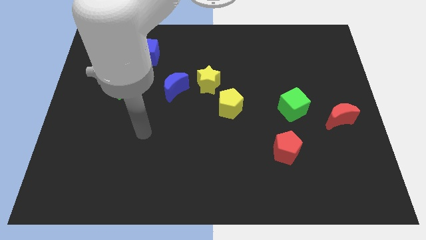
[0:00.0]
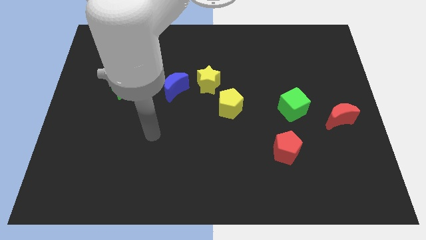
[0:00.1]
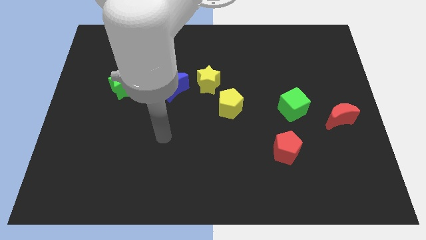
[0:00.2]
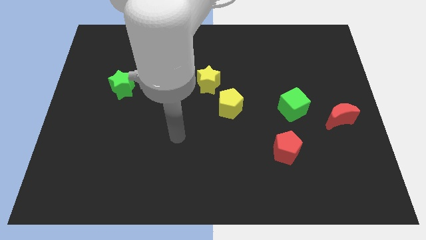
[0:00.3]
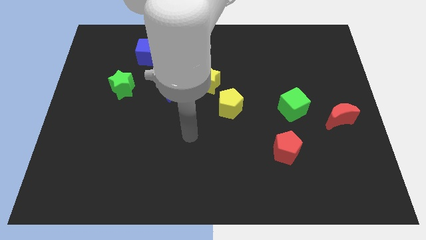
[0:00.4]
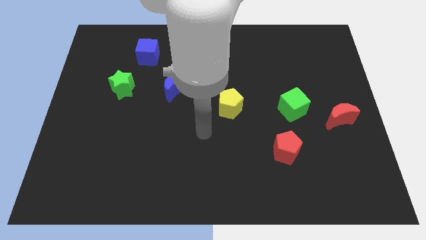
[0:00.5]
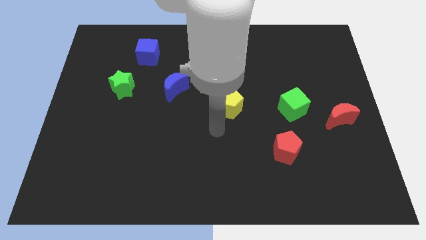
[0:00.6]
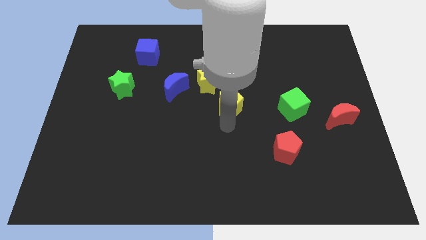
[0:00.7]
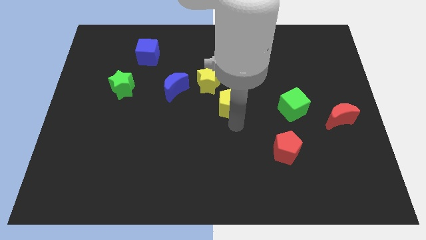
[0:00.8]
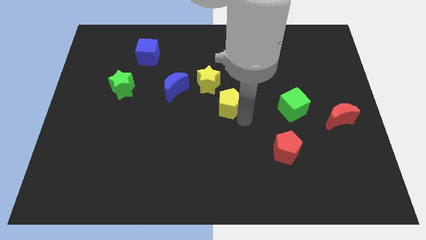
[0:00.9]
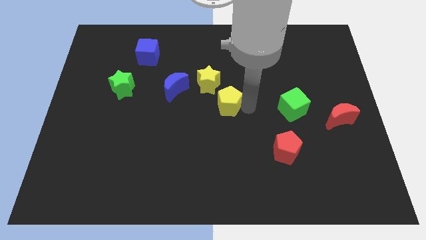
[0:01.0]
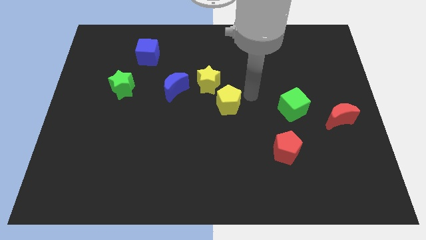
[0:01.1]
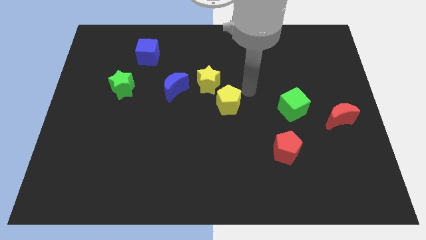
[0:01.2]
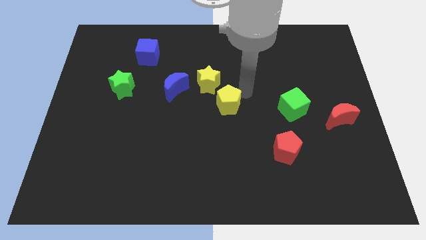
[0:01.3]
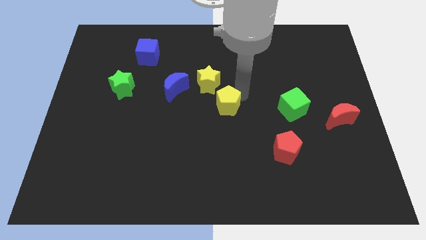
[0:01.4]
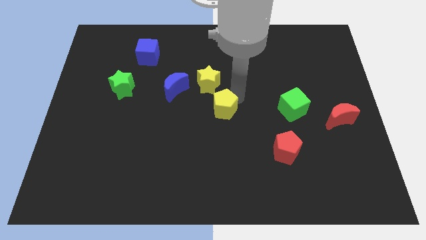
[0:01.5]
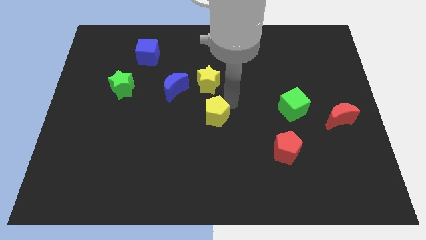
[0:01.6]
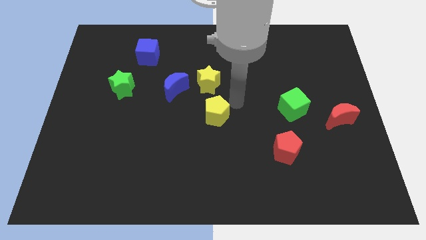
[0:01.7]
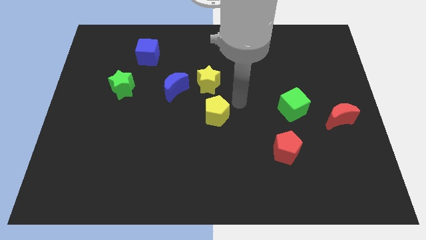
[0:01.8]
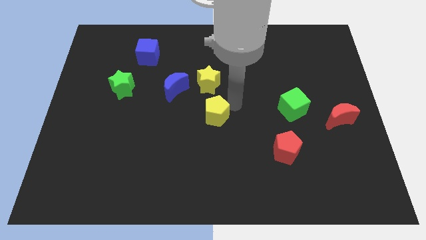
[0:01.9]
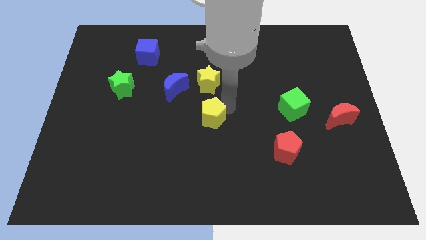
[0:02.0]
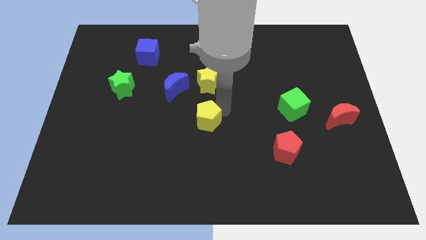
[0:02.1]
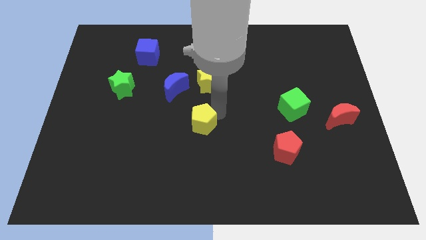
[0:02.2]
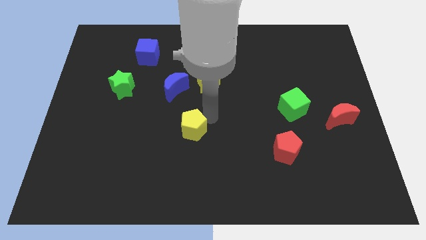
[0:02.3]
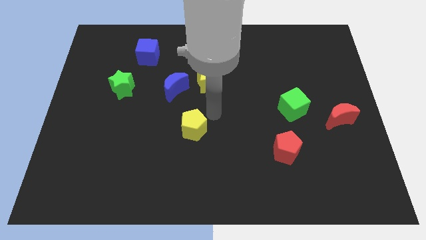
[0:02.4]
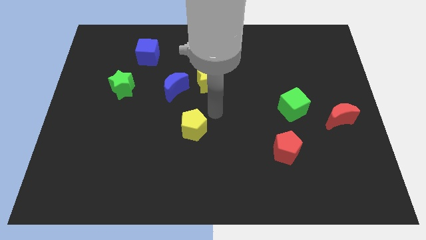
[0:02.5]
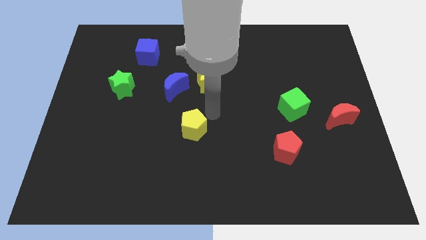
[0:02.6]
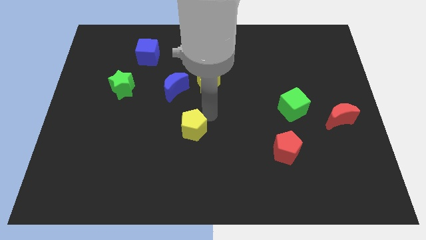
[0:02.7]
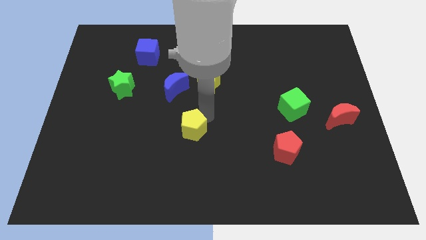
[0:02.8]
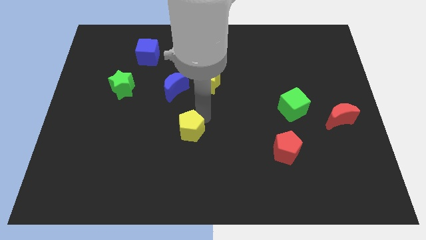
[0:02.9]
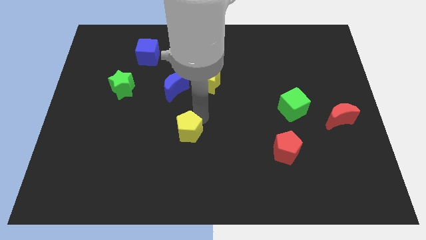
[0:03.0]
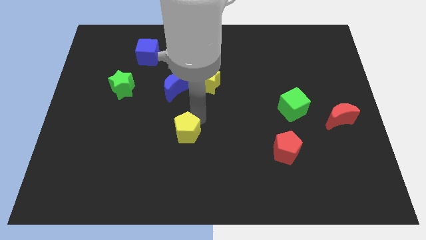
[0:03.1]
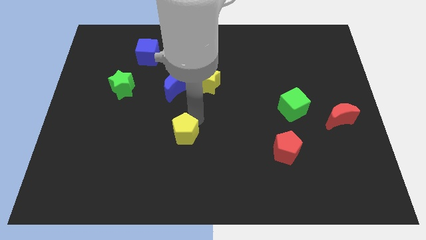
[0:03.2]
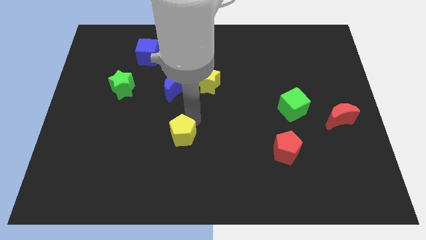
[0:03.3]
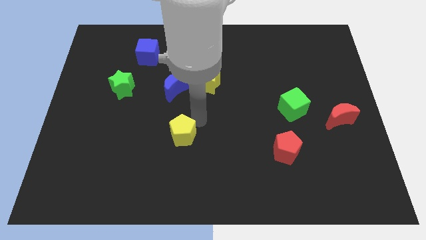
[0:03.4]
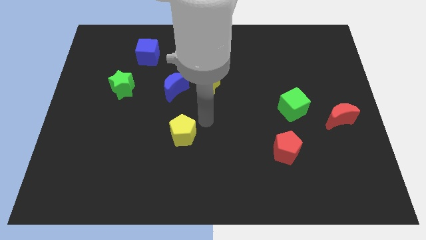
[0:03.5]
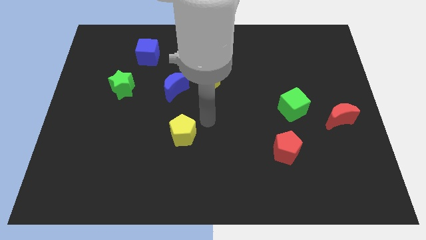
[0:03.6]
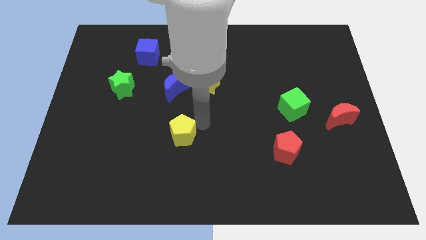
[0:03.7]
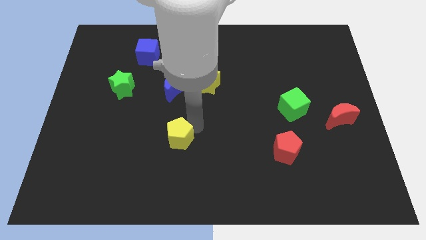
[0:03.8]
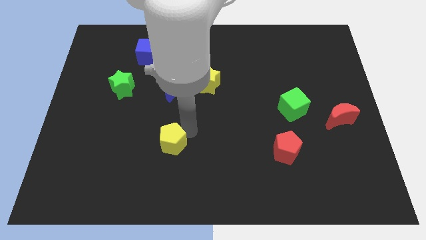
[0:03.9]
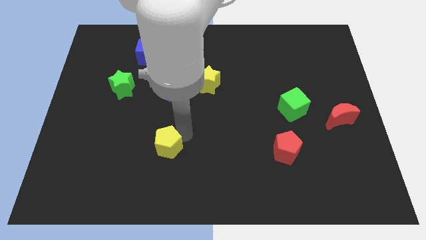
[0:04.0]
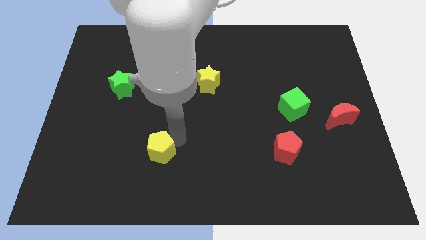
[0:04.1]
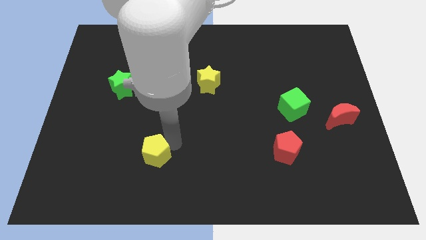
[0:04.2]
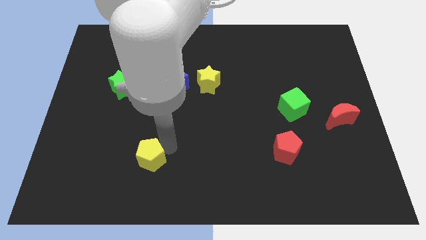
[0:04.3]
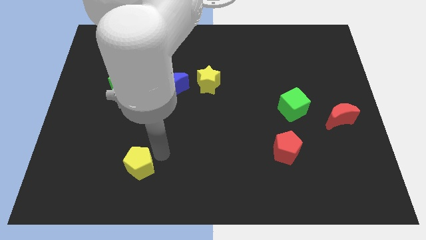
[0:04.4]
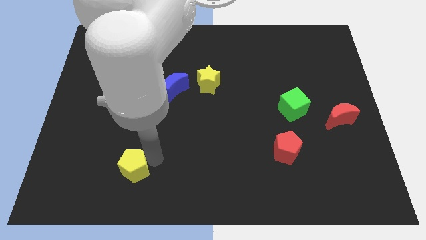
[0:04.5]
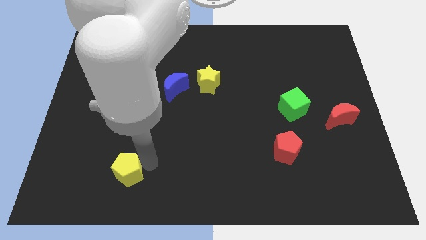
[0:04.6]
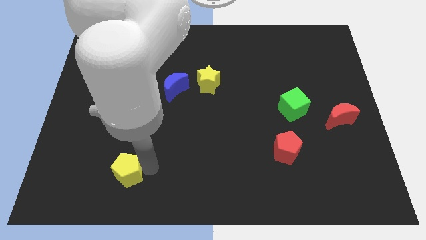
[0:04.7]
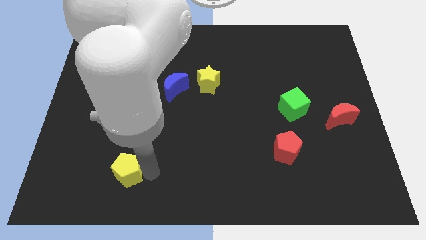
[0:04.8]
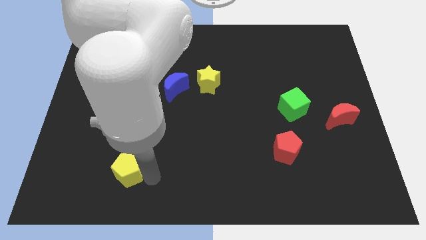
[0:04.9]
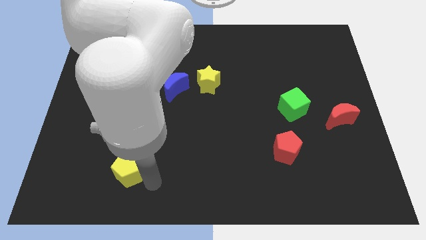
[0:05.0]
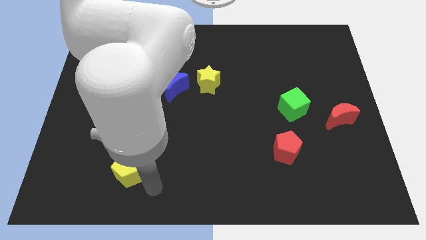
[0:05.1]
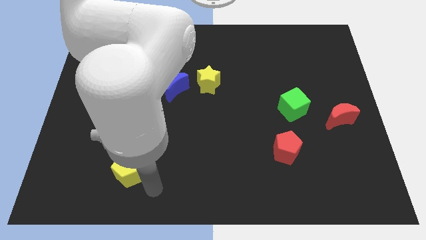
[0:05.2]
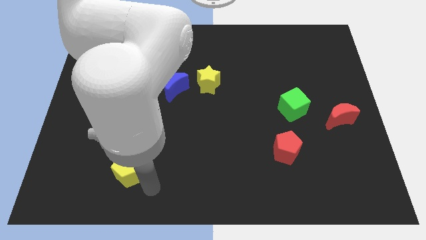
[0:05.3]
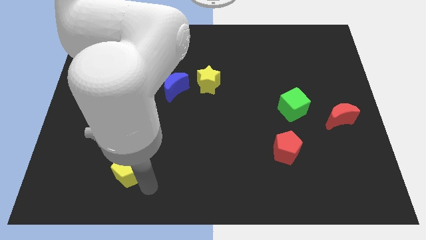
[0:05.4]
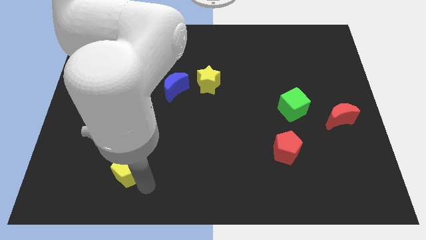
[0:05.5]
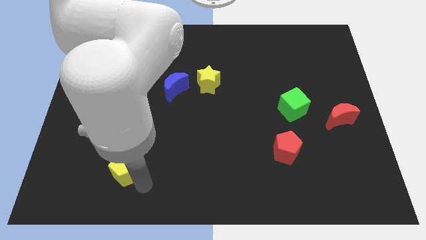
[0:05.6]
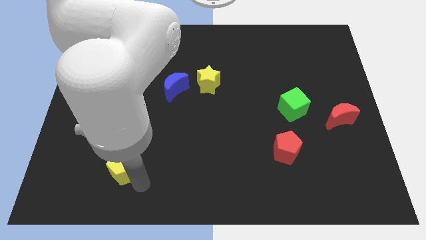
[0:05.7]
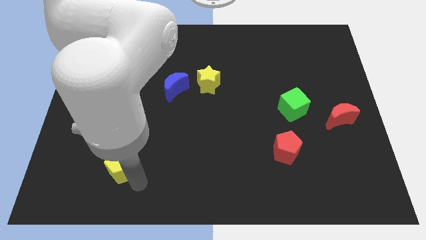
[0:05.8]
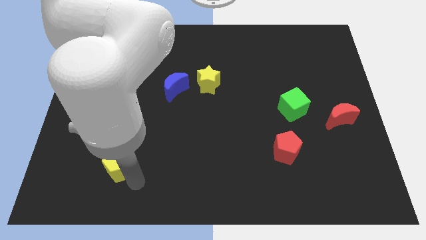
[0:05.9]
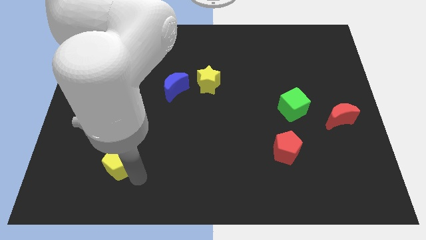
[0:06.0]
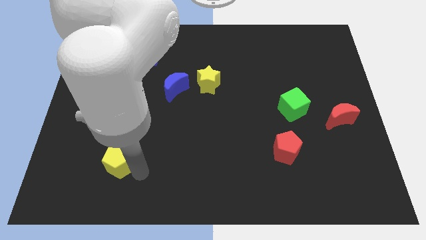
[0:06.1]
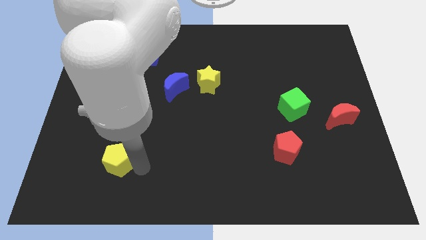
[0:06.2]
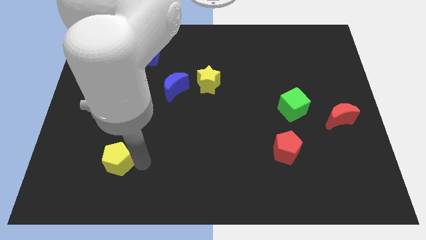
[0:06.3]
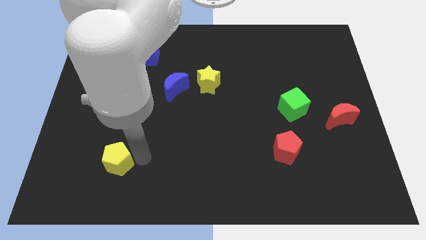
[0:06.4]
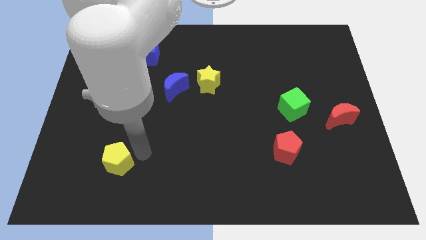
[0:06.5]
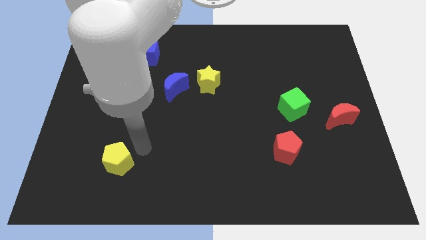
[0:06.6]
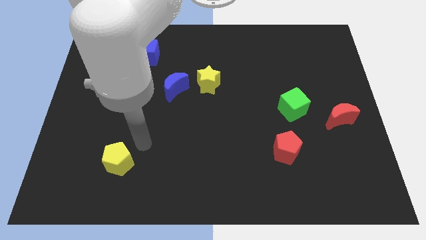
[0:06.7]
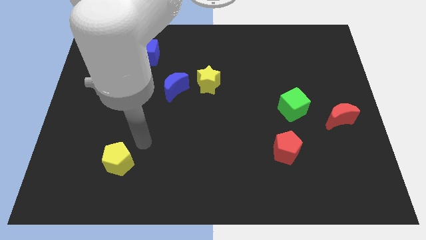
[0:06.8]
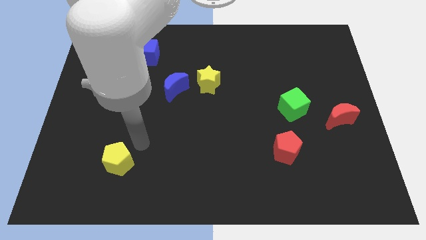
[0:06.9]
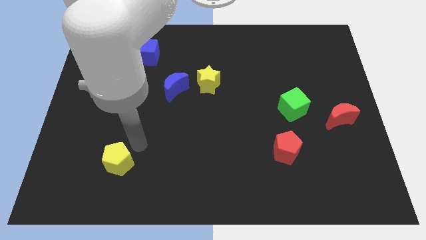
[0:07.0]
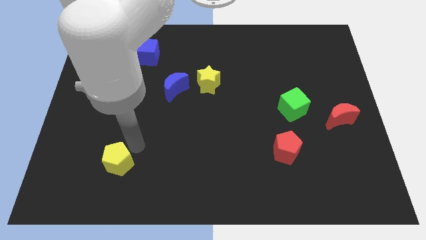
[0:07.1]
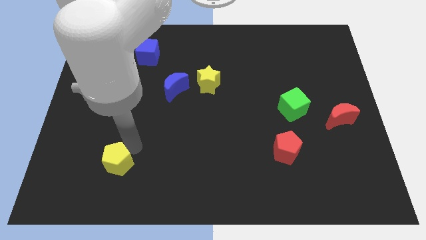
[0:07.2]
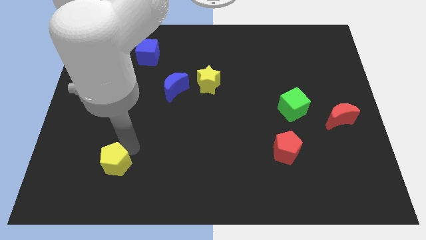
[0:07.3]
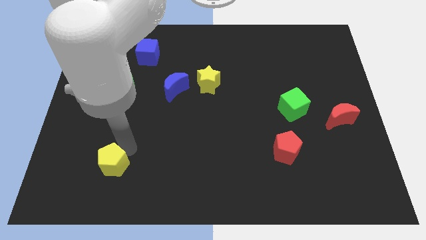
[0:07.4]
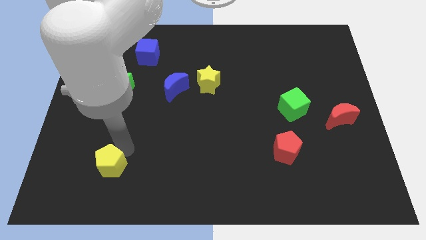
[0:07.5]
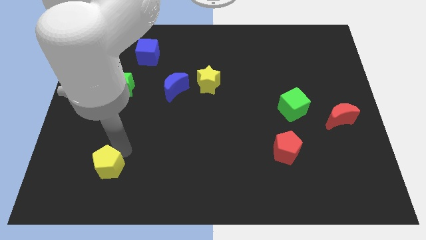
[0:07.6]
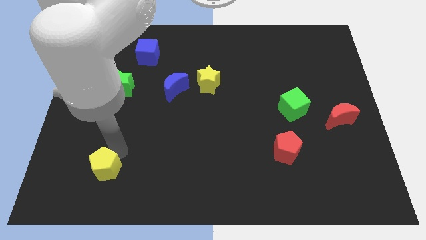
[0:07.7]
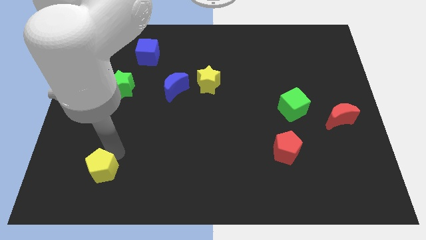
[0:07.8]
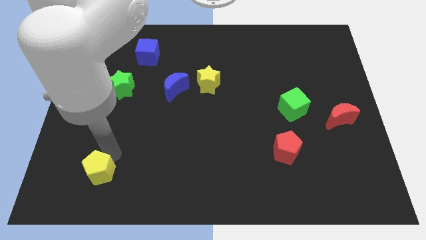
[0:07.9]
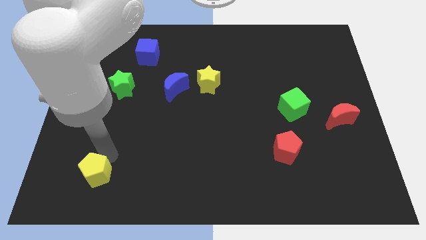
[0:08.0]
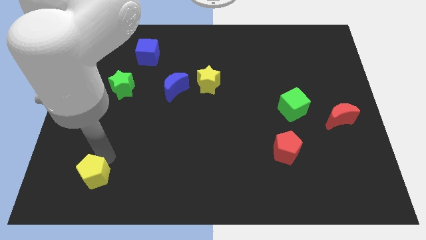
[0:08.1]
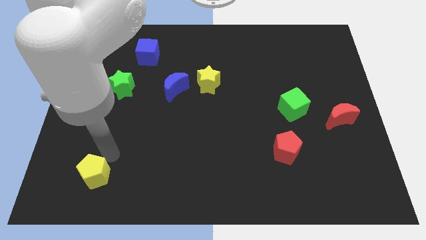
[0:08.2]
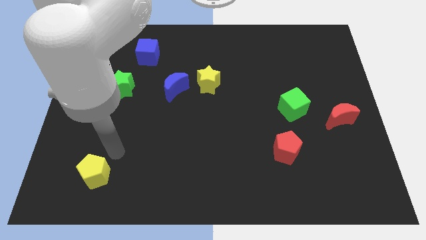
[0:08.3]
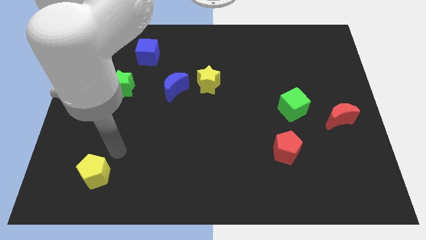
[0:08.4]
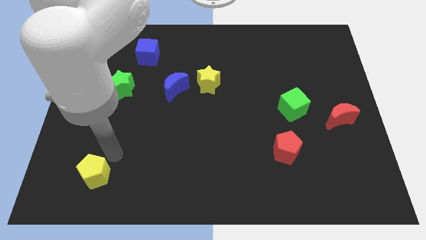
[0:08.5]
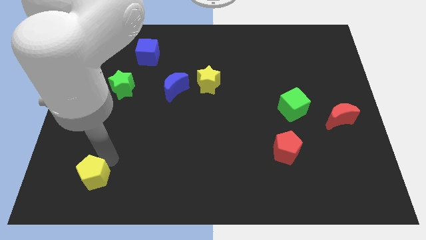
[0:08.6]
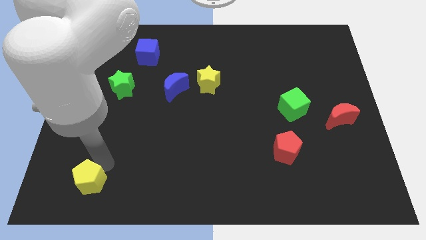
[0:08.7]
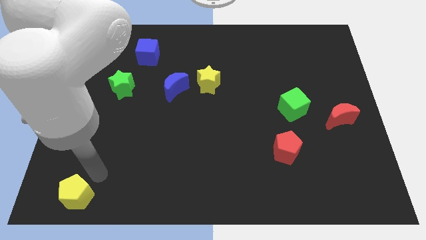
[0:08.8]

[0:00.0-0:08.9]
move the yellow pentagon to the bottom left
